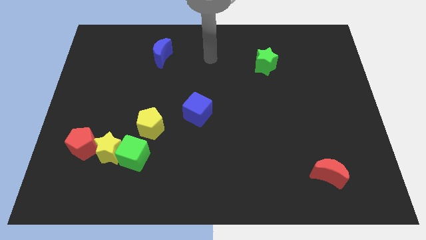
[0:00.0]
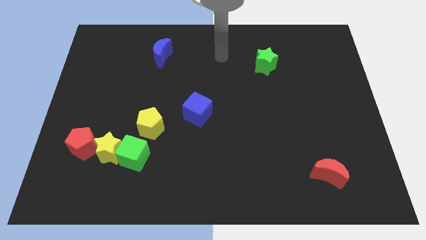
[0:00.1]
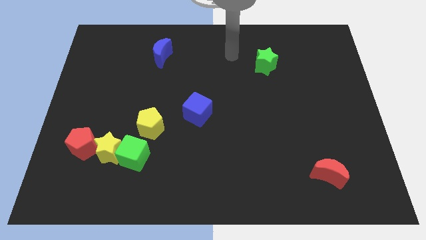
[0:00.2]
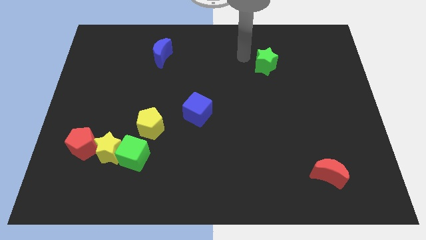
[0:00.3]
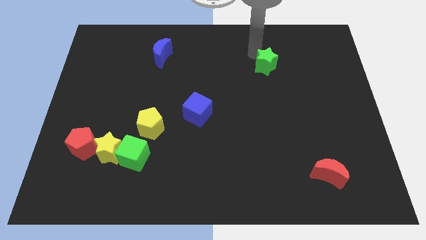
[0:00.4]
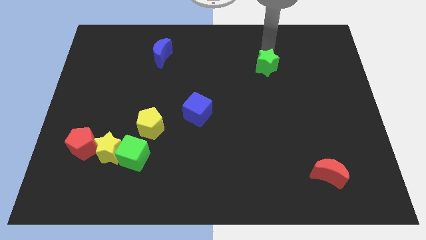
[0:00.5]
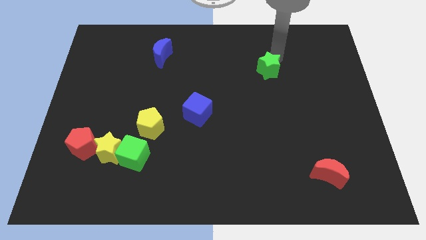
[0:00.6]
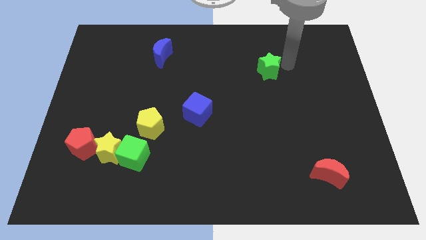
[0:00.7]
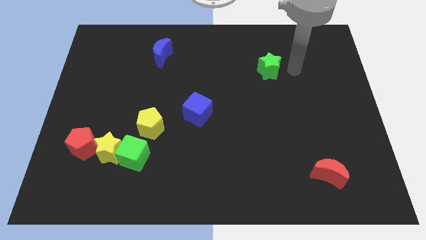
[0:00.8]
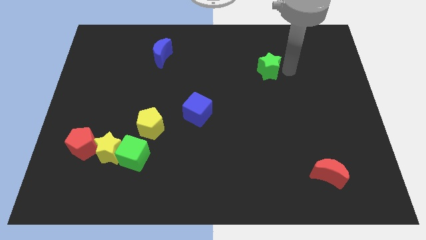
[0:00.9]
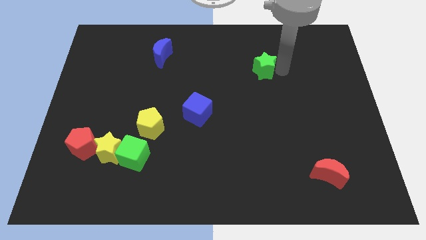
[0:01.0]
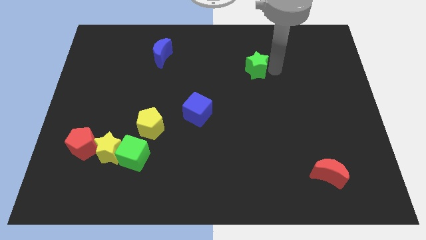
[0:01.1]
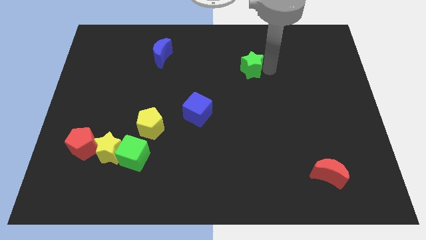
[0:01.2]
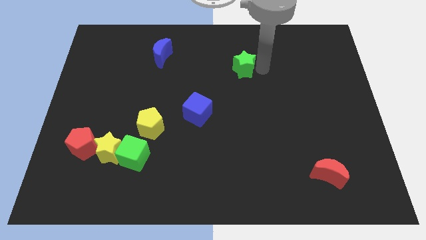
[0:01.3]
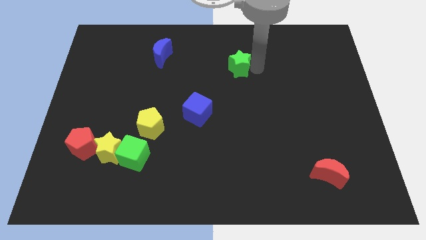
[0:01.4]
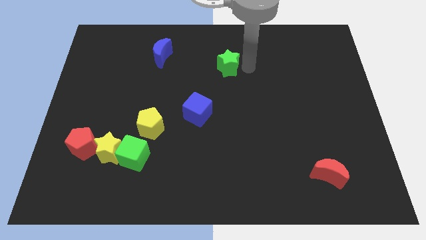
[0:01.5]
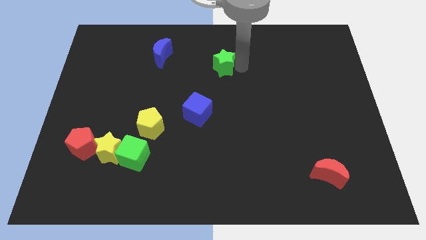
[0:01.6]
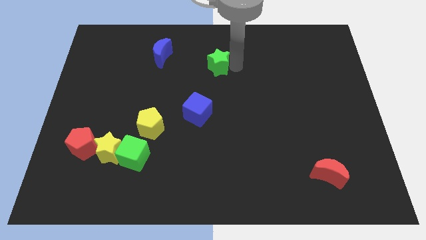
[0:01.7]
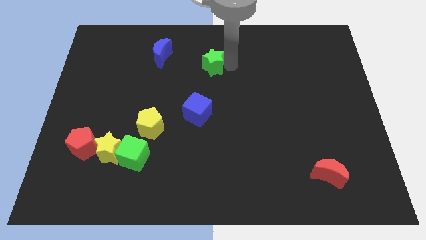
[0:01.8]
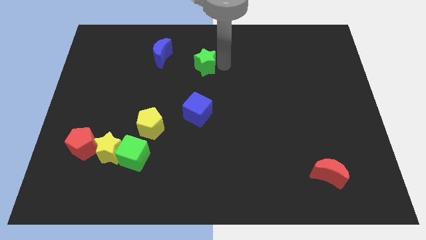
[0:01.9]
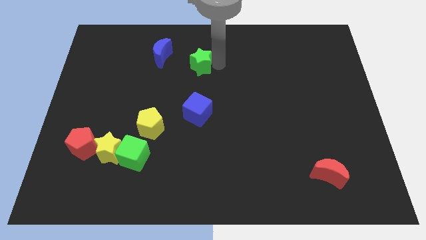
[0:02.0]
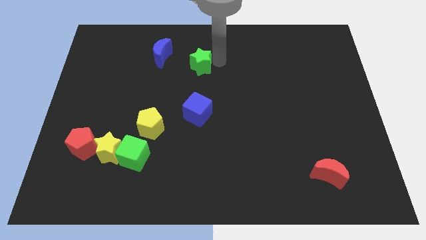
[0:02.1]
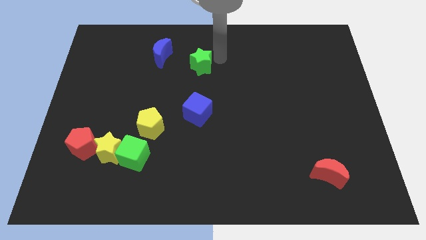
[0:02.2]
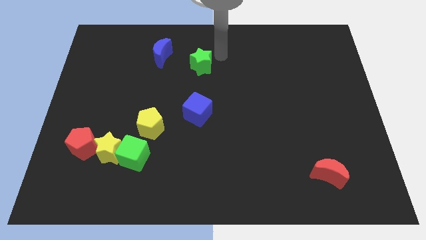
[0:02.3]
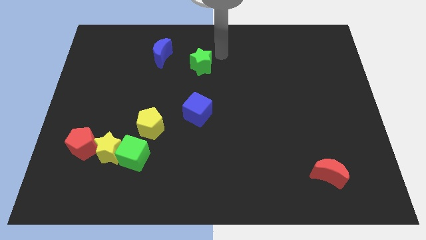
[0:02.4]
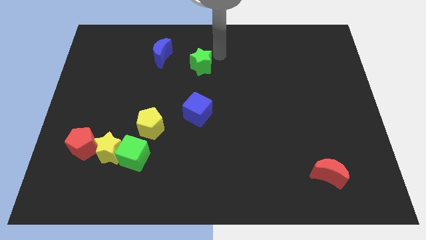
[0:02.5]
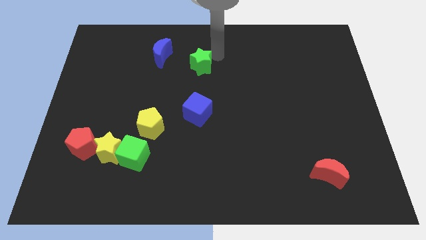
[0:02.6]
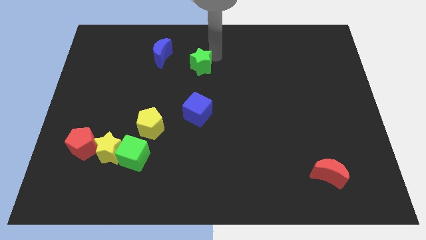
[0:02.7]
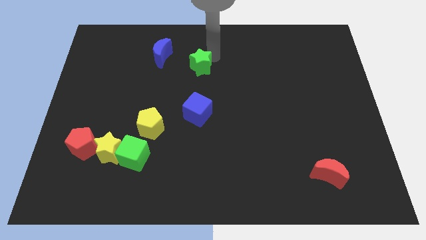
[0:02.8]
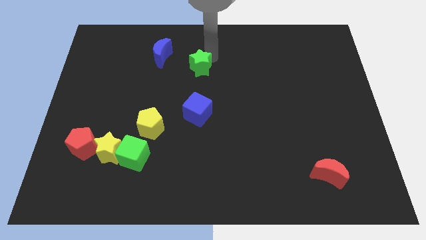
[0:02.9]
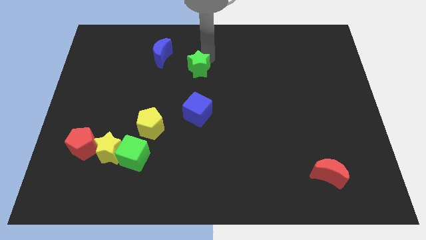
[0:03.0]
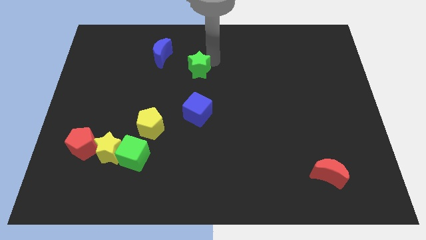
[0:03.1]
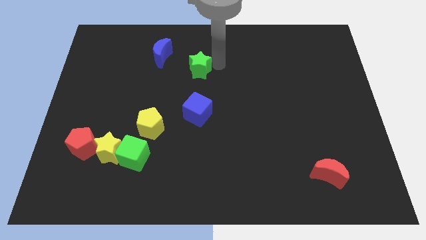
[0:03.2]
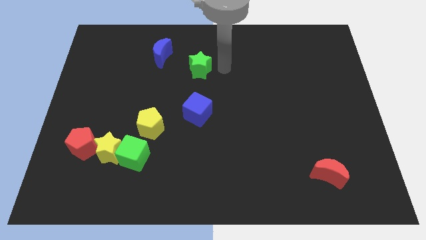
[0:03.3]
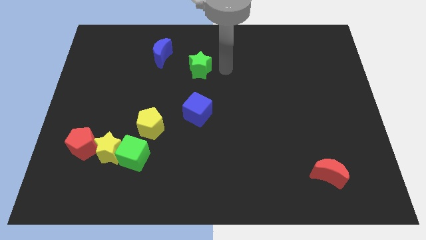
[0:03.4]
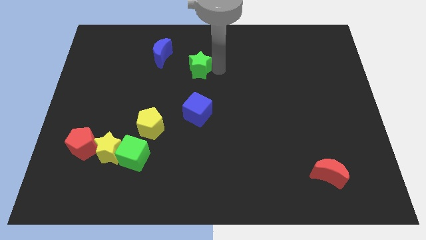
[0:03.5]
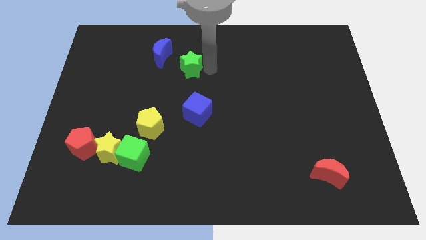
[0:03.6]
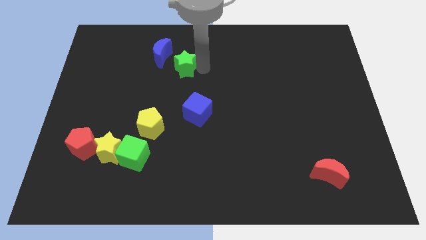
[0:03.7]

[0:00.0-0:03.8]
slide the green star left

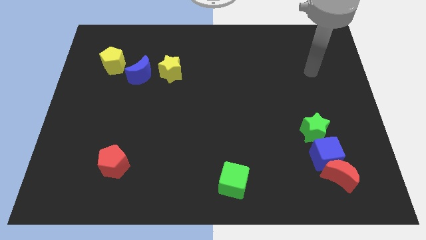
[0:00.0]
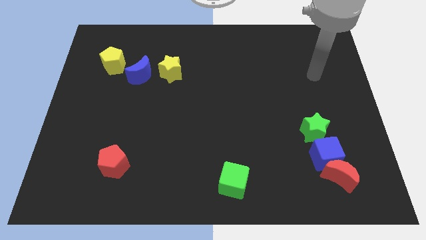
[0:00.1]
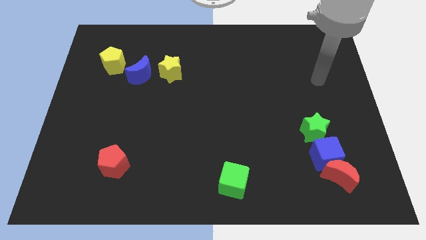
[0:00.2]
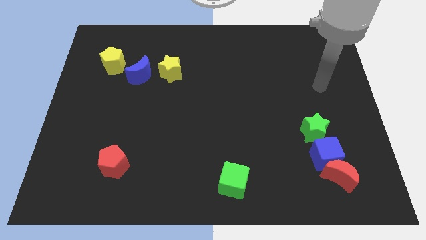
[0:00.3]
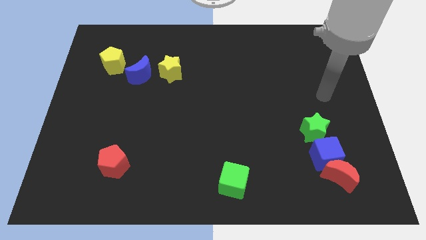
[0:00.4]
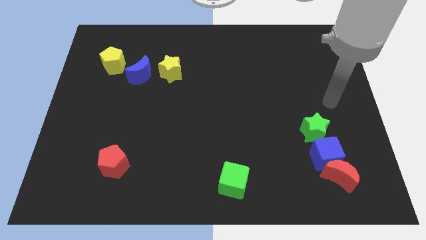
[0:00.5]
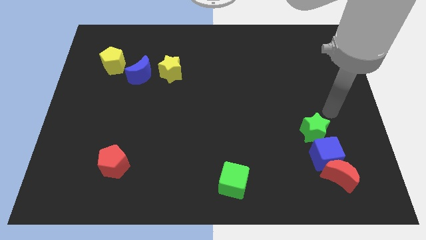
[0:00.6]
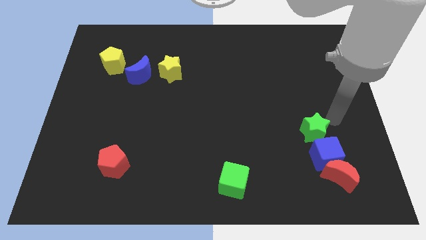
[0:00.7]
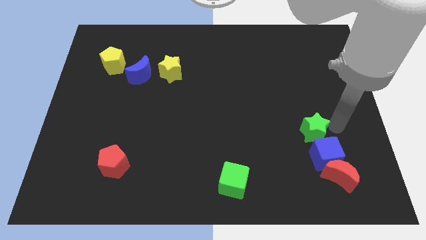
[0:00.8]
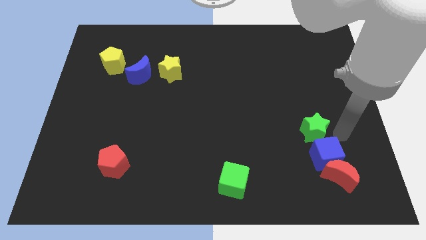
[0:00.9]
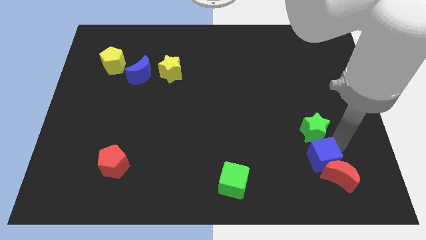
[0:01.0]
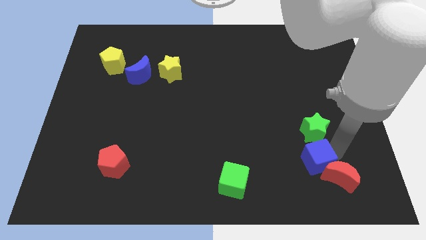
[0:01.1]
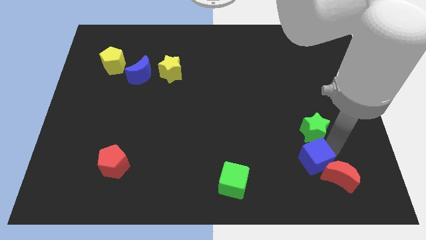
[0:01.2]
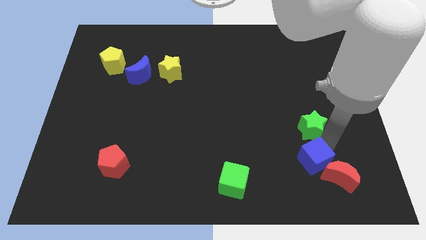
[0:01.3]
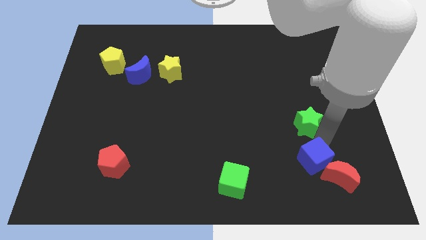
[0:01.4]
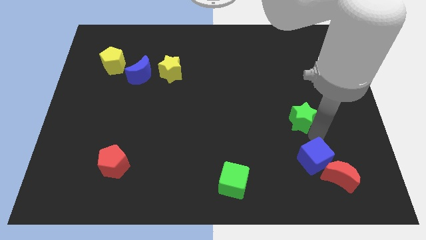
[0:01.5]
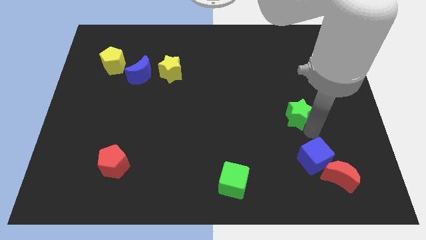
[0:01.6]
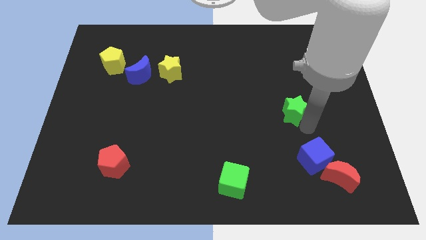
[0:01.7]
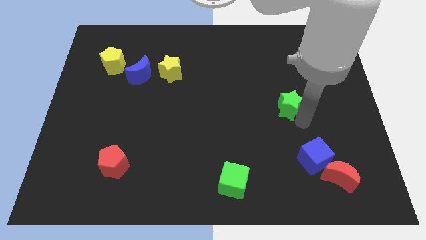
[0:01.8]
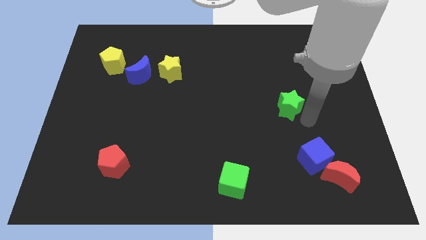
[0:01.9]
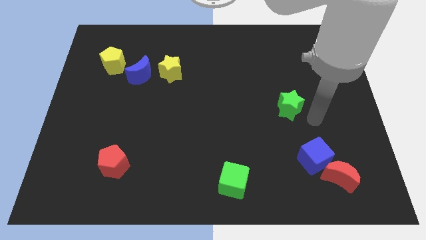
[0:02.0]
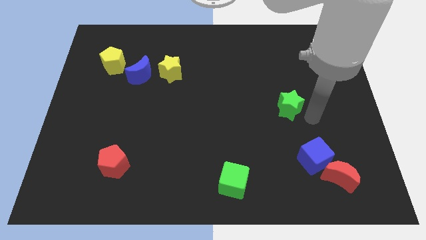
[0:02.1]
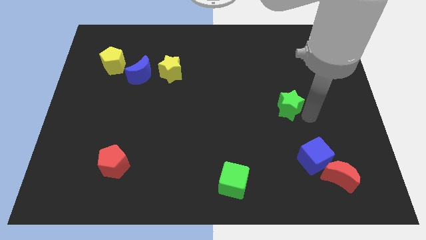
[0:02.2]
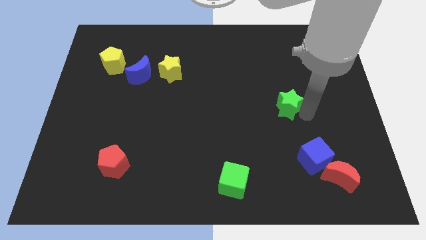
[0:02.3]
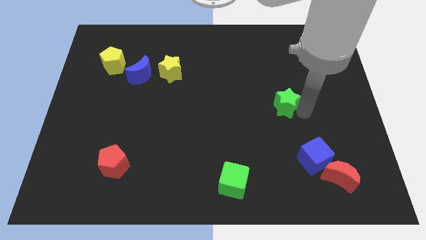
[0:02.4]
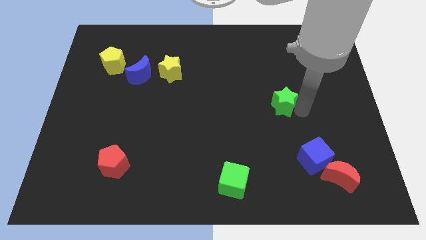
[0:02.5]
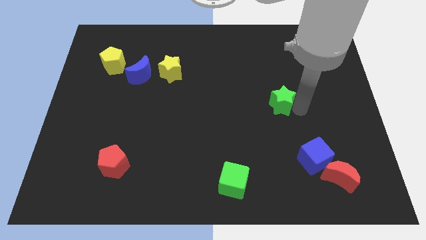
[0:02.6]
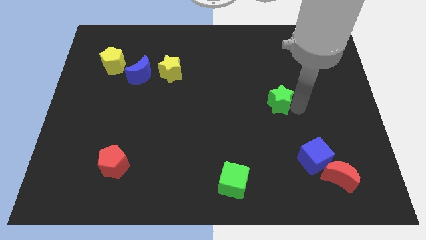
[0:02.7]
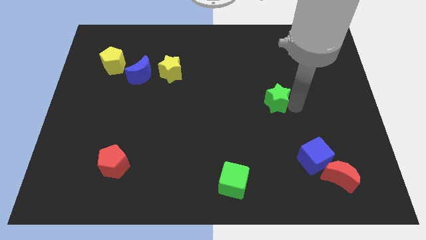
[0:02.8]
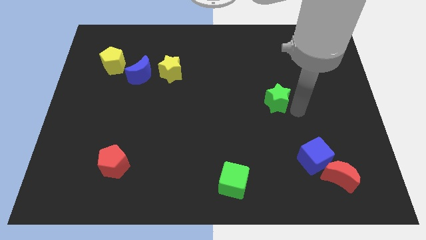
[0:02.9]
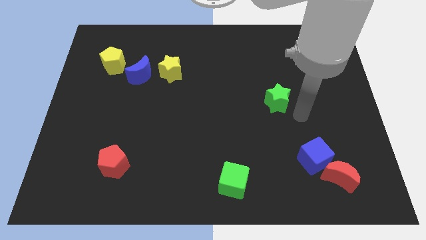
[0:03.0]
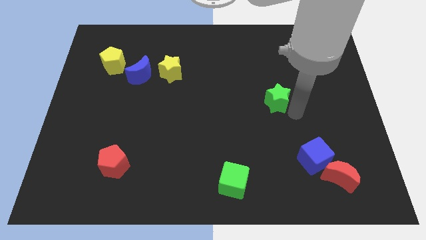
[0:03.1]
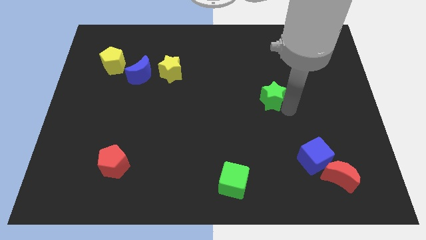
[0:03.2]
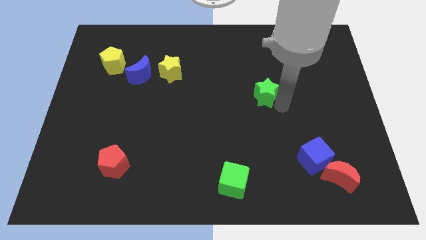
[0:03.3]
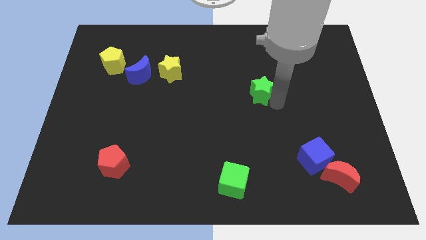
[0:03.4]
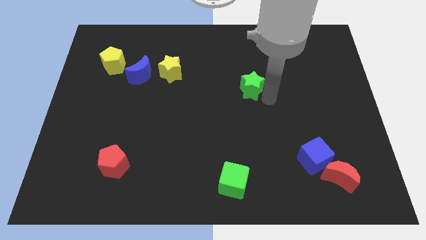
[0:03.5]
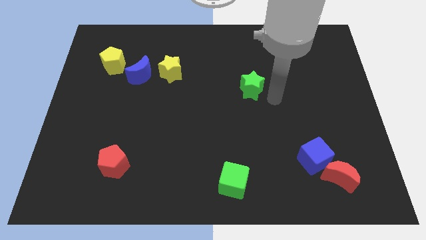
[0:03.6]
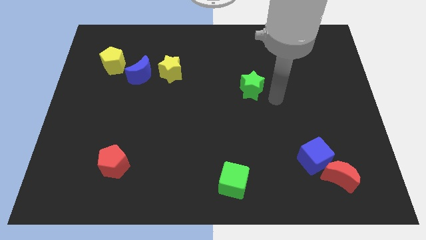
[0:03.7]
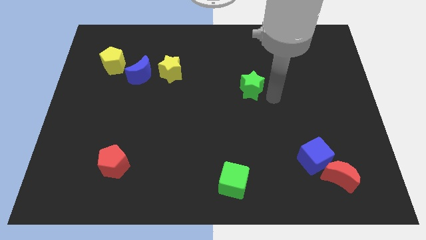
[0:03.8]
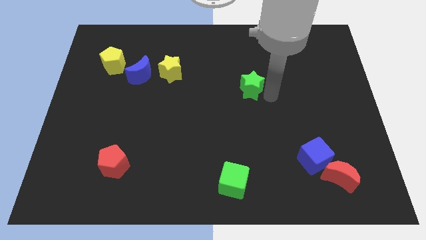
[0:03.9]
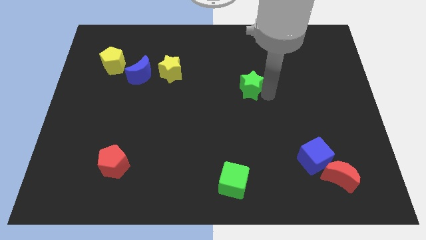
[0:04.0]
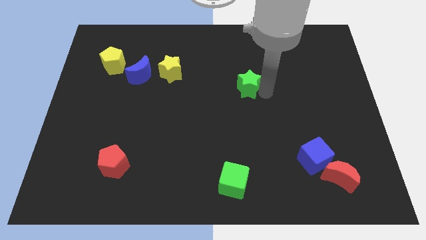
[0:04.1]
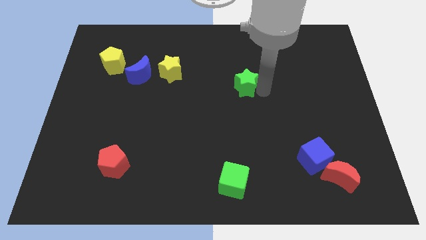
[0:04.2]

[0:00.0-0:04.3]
move the green star diagonally upwards and to the left

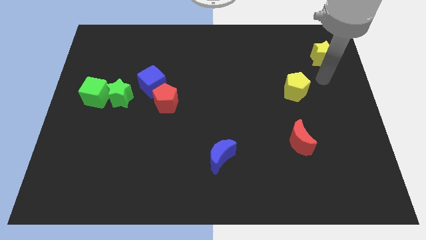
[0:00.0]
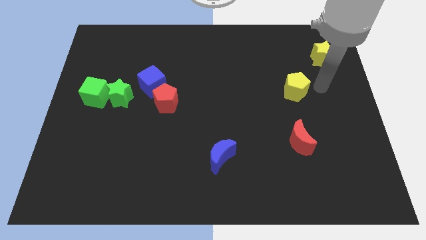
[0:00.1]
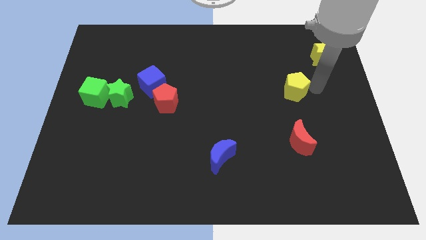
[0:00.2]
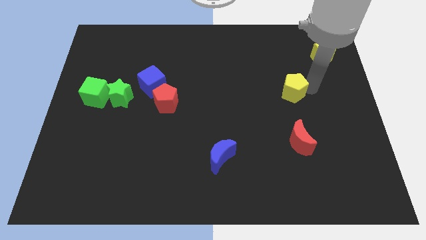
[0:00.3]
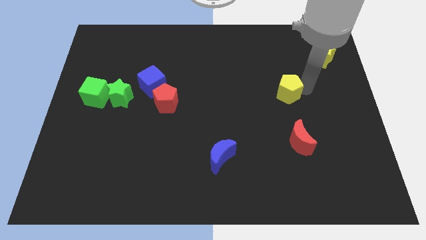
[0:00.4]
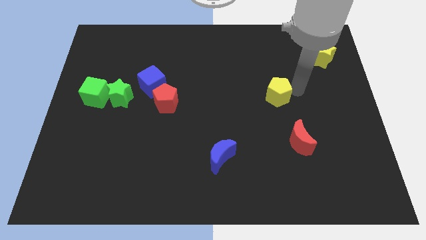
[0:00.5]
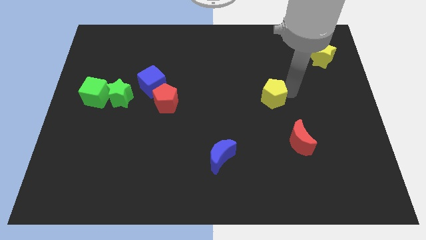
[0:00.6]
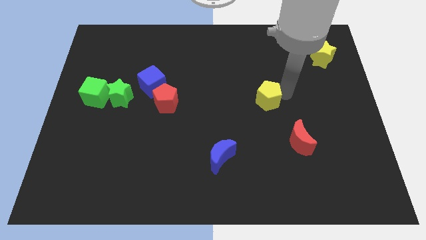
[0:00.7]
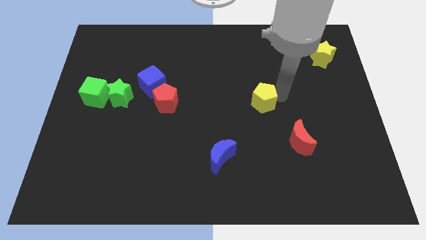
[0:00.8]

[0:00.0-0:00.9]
slide the yellow pentagon left a little bit
